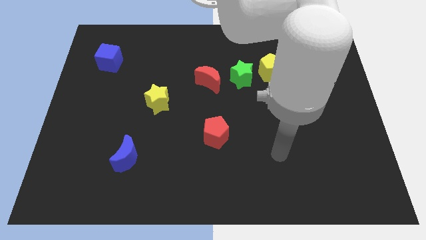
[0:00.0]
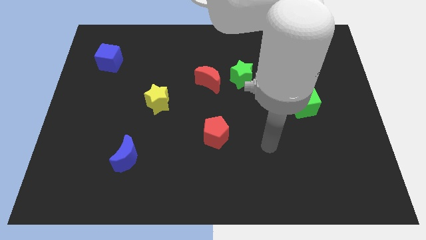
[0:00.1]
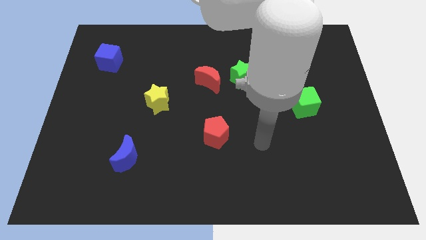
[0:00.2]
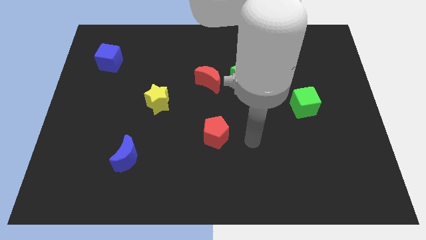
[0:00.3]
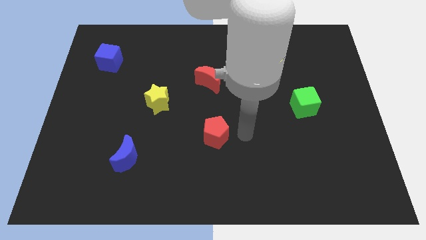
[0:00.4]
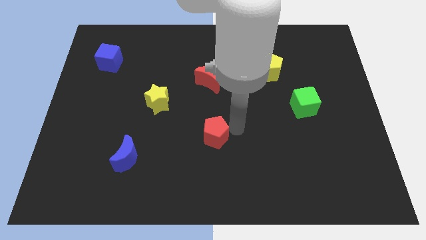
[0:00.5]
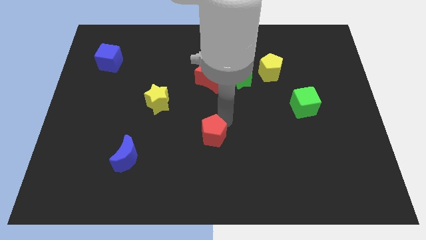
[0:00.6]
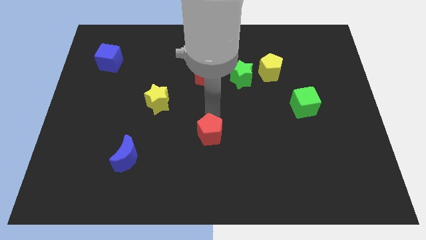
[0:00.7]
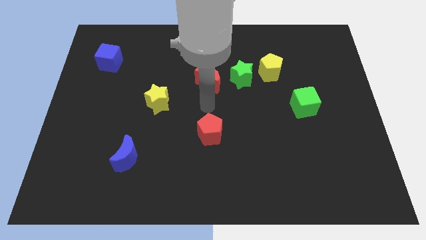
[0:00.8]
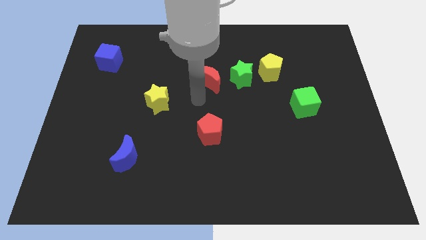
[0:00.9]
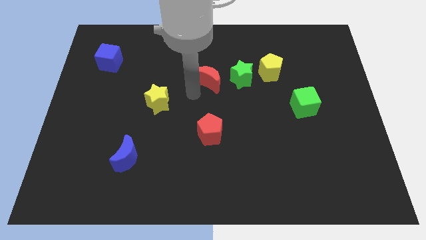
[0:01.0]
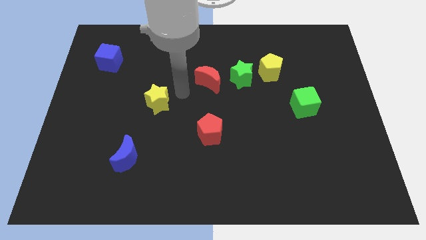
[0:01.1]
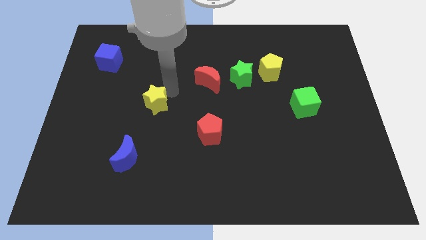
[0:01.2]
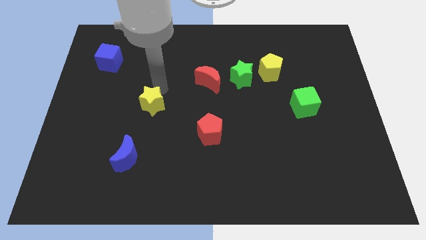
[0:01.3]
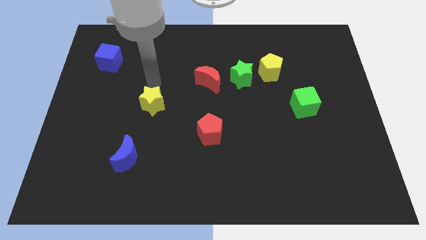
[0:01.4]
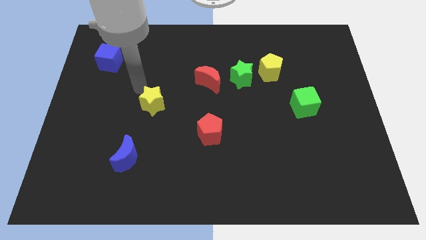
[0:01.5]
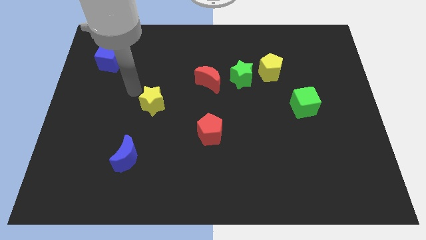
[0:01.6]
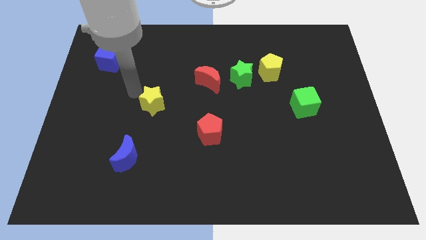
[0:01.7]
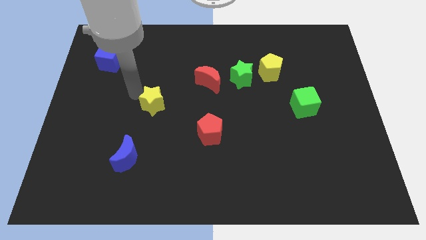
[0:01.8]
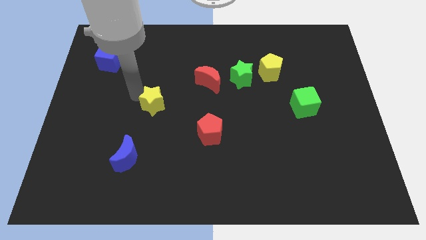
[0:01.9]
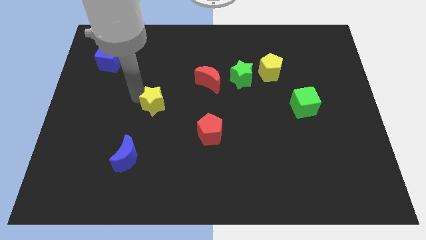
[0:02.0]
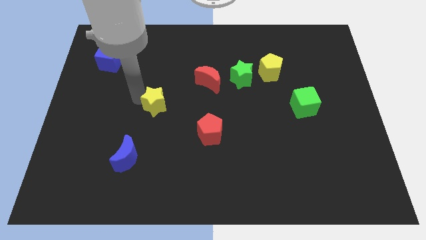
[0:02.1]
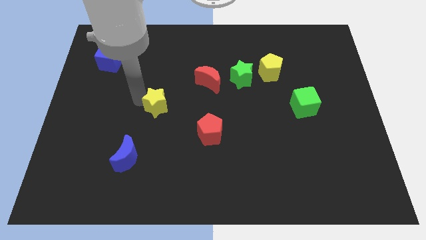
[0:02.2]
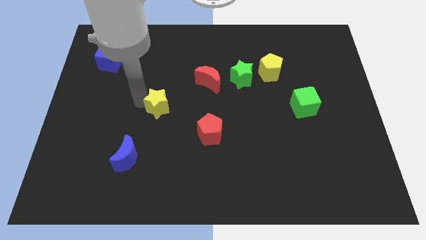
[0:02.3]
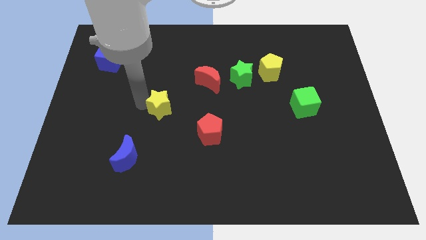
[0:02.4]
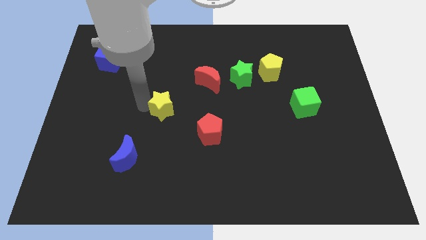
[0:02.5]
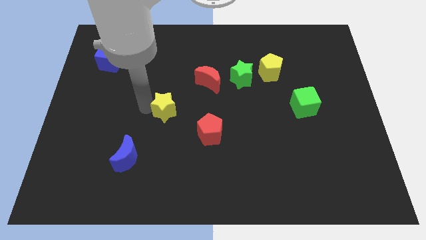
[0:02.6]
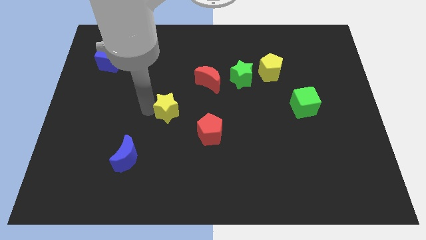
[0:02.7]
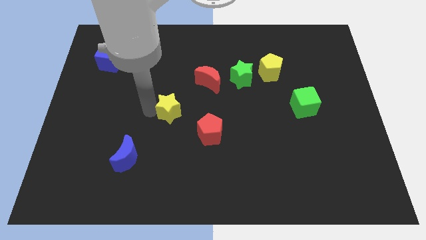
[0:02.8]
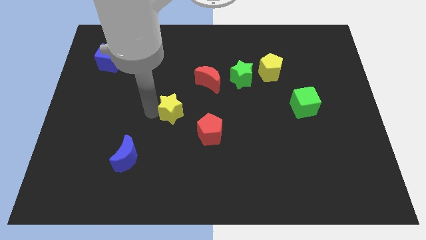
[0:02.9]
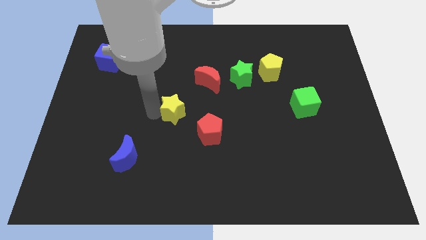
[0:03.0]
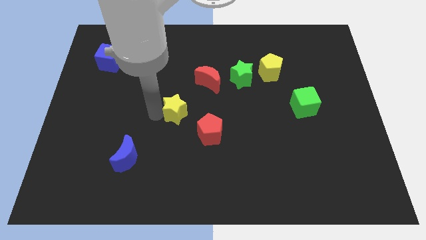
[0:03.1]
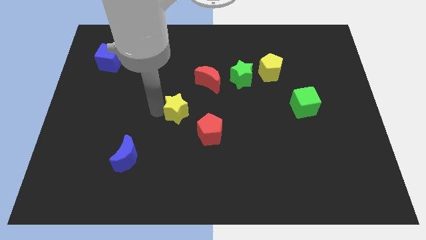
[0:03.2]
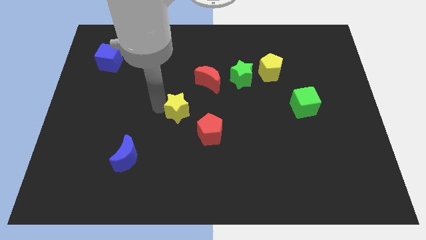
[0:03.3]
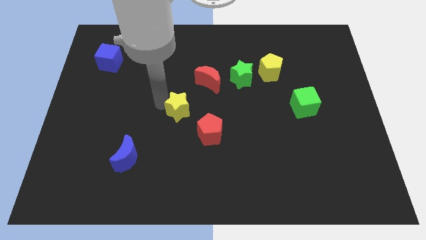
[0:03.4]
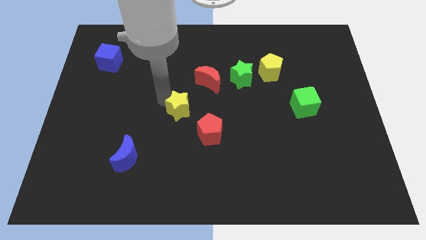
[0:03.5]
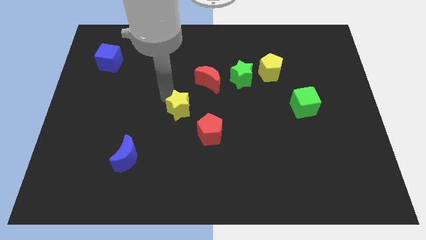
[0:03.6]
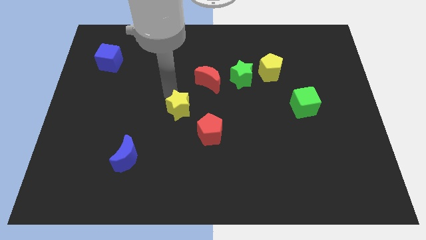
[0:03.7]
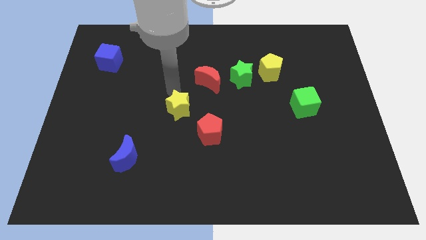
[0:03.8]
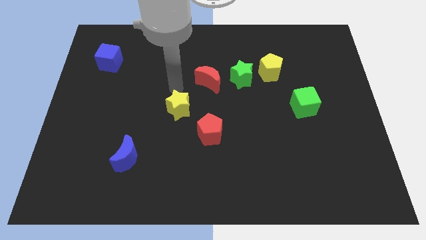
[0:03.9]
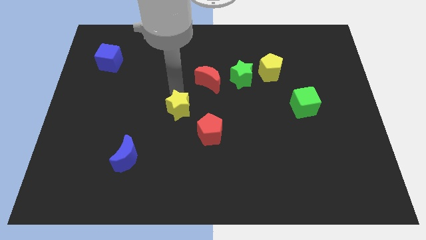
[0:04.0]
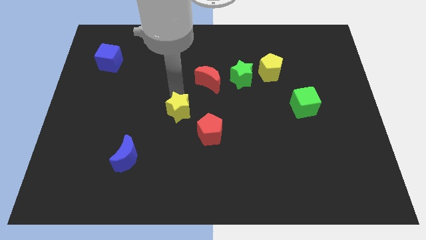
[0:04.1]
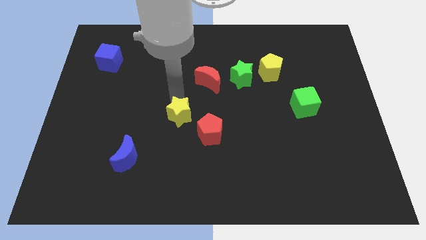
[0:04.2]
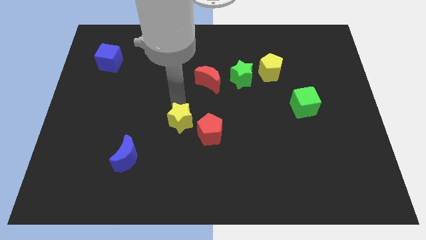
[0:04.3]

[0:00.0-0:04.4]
slightly push the yellow star diagonally down and right

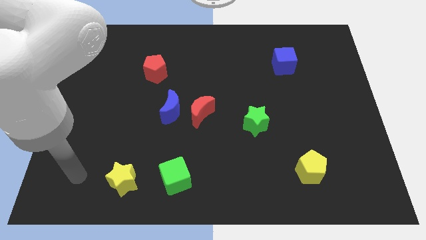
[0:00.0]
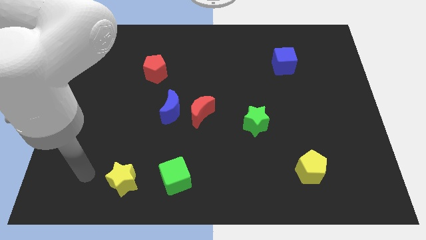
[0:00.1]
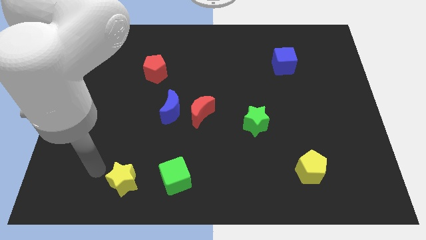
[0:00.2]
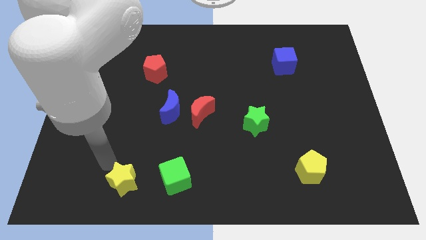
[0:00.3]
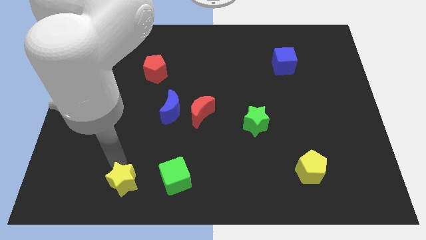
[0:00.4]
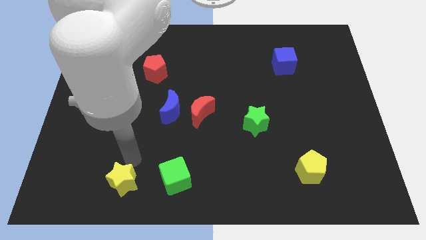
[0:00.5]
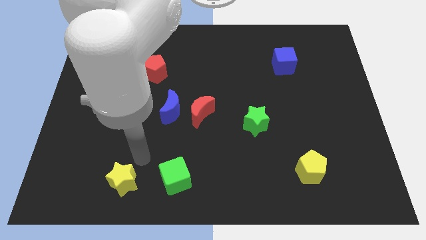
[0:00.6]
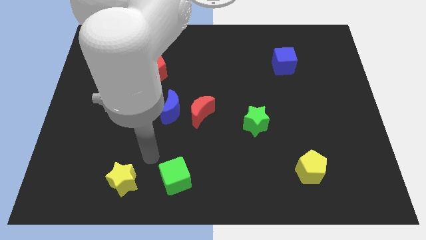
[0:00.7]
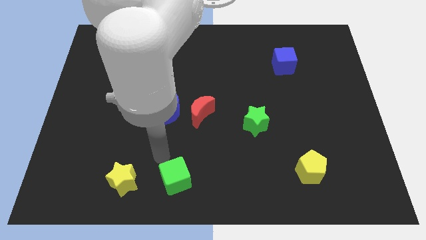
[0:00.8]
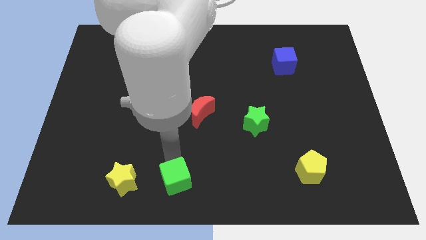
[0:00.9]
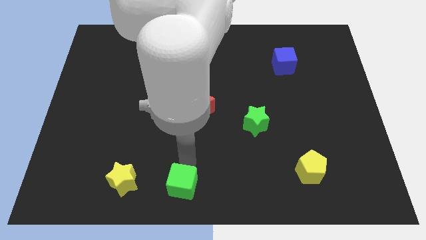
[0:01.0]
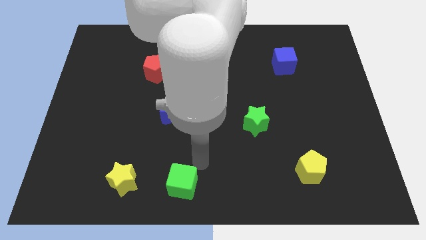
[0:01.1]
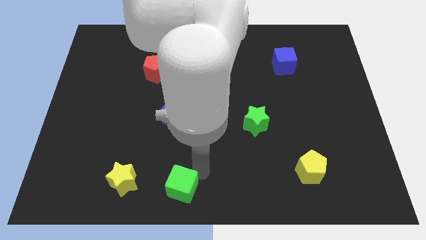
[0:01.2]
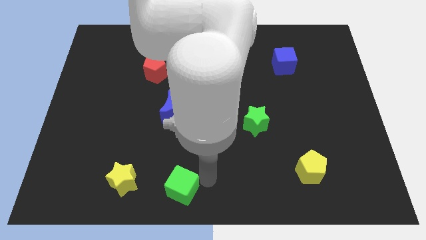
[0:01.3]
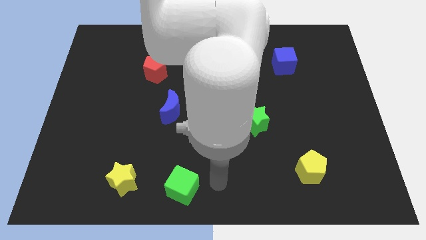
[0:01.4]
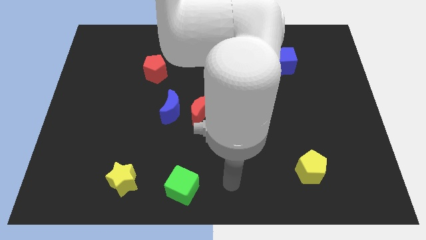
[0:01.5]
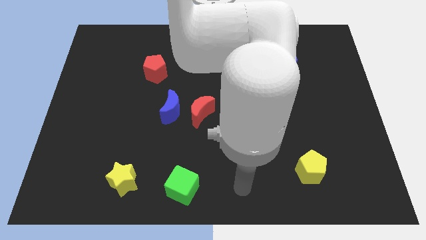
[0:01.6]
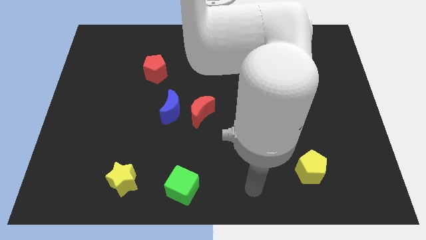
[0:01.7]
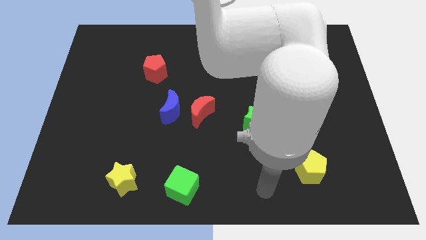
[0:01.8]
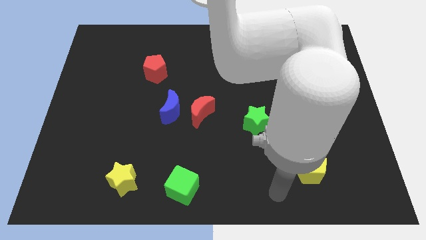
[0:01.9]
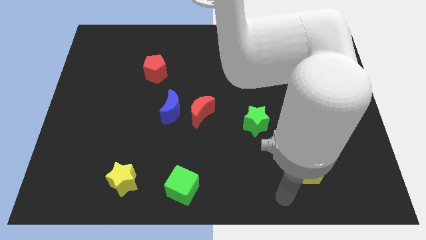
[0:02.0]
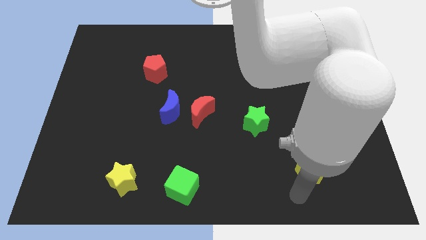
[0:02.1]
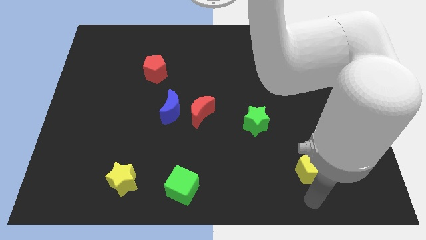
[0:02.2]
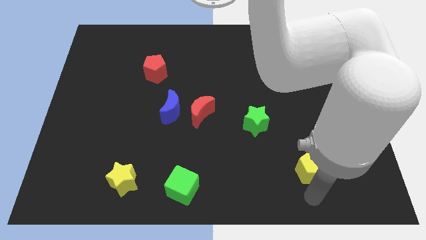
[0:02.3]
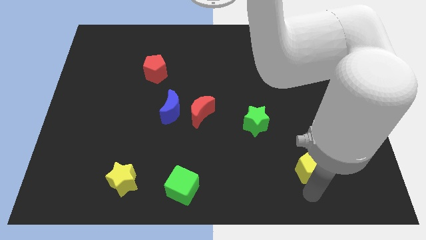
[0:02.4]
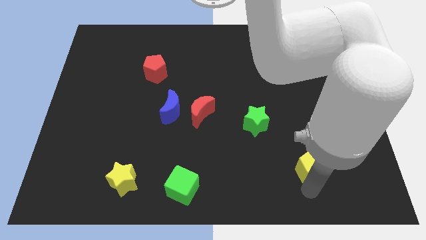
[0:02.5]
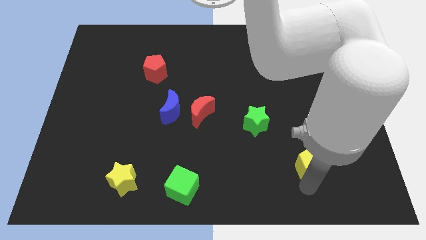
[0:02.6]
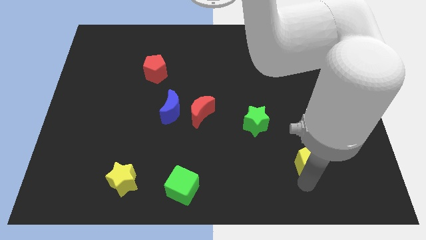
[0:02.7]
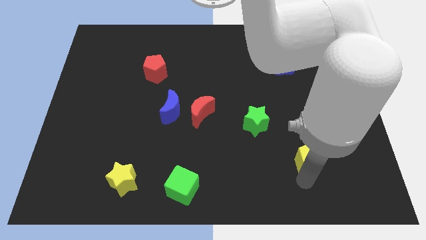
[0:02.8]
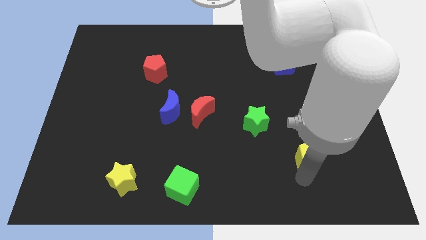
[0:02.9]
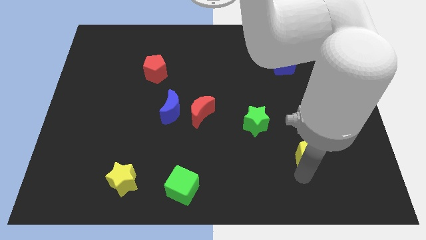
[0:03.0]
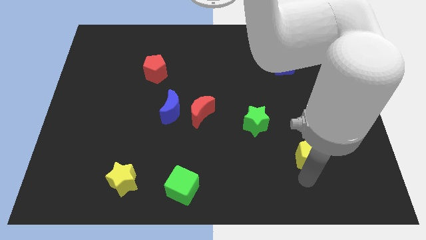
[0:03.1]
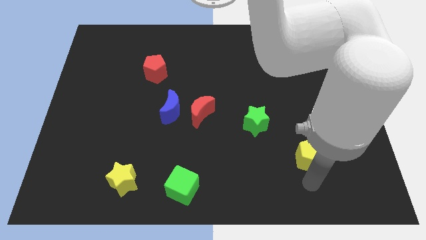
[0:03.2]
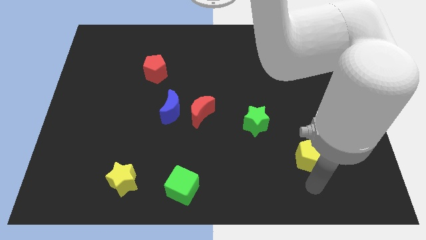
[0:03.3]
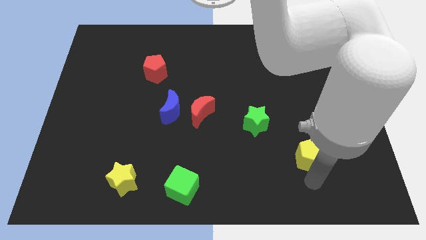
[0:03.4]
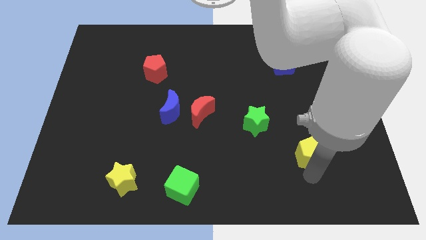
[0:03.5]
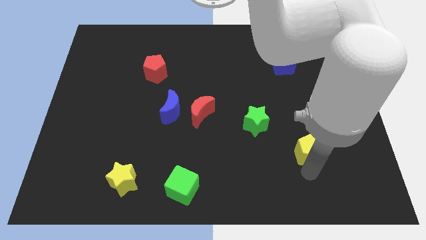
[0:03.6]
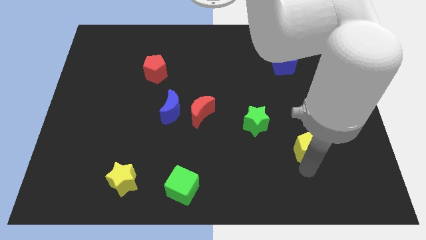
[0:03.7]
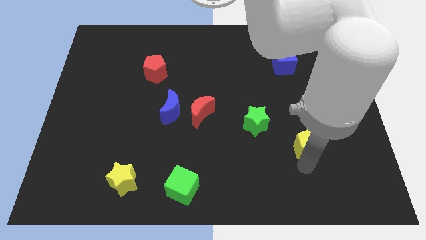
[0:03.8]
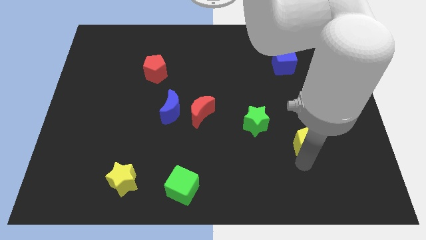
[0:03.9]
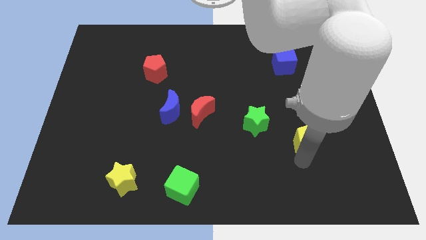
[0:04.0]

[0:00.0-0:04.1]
push the yellow pentagon upwards a little bit
